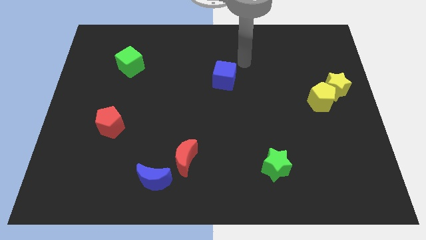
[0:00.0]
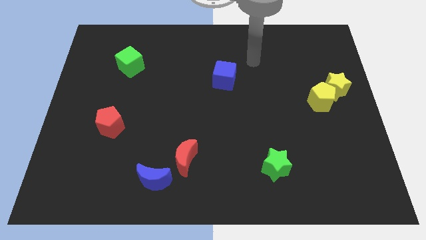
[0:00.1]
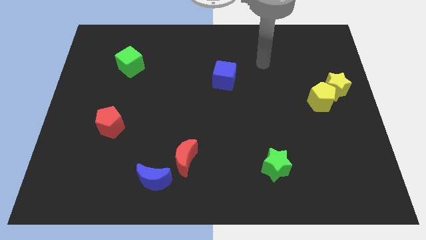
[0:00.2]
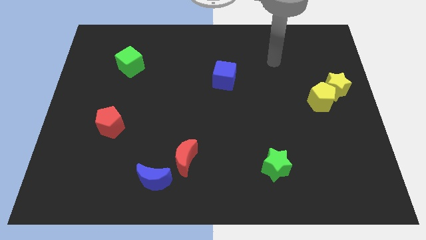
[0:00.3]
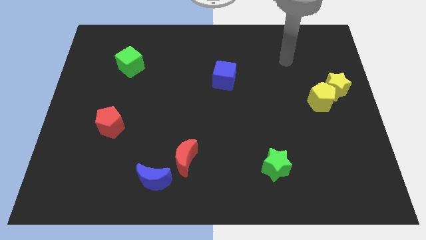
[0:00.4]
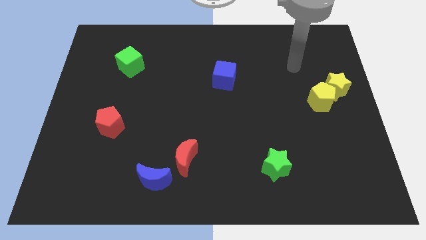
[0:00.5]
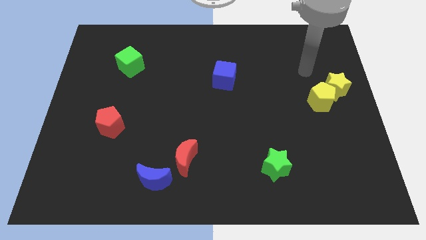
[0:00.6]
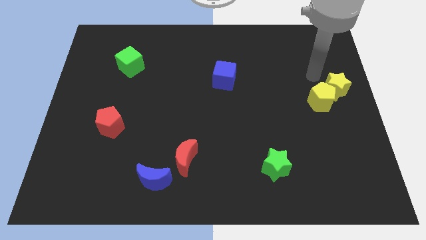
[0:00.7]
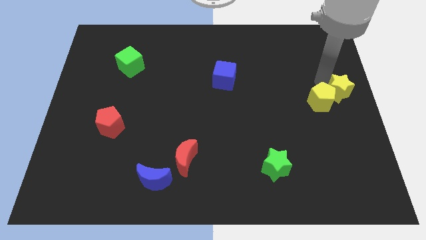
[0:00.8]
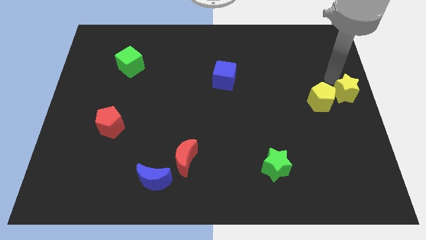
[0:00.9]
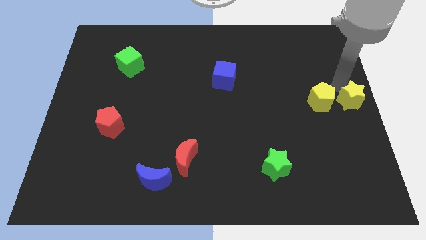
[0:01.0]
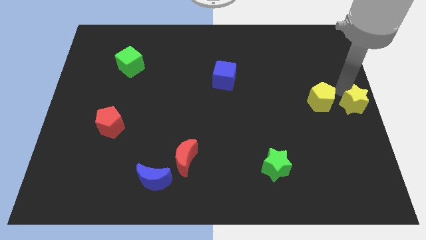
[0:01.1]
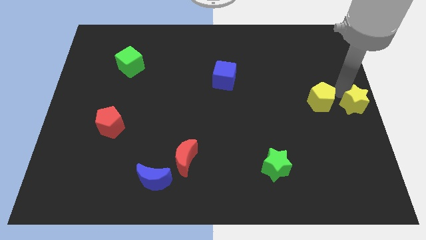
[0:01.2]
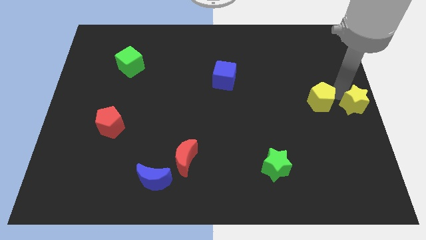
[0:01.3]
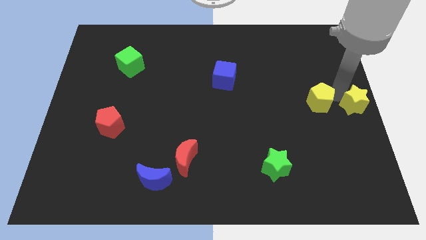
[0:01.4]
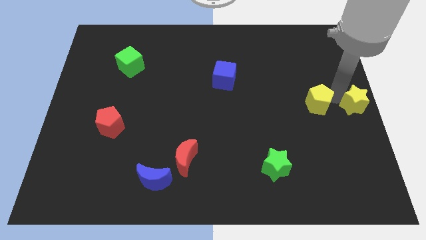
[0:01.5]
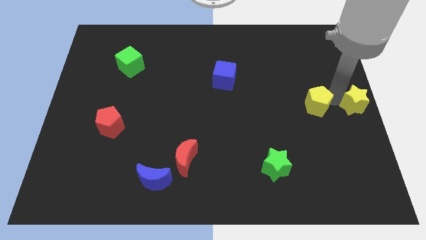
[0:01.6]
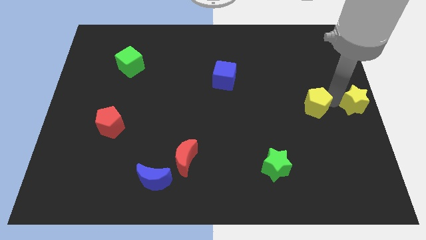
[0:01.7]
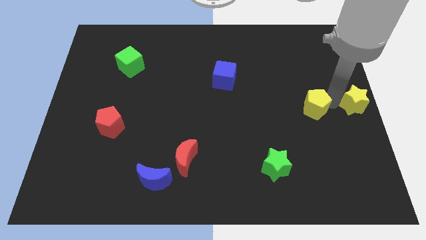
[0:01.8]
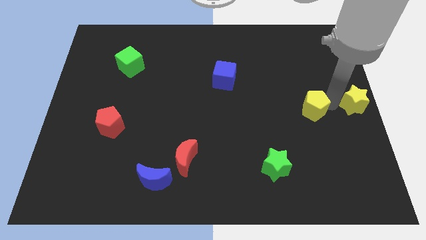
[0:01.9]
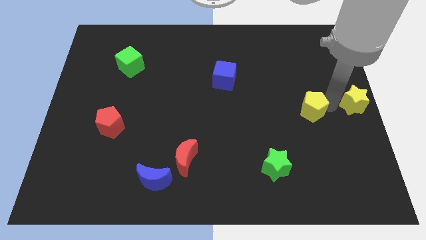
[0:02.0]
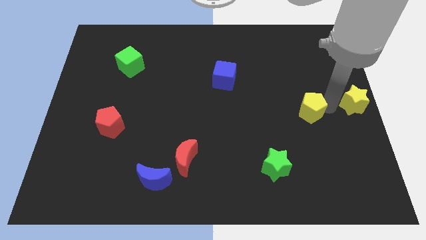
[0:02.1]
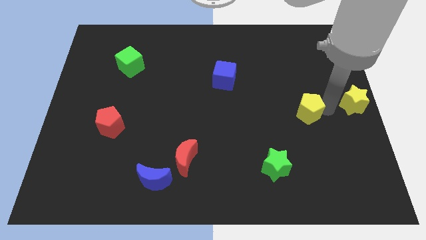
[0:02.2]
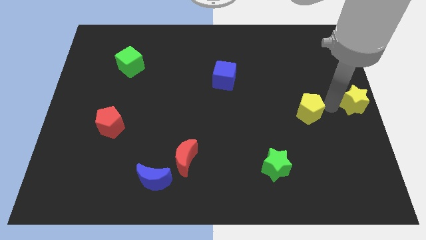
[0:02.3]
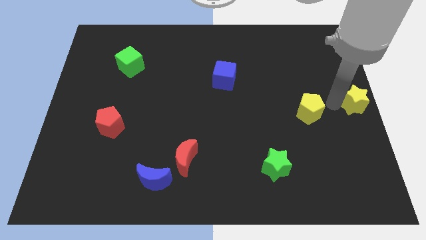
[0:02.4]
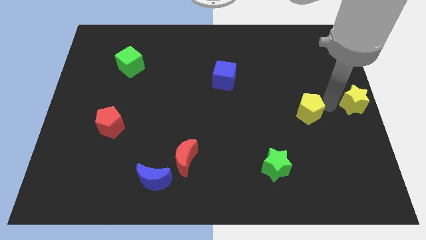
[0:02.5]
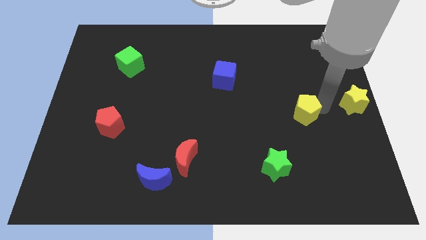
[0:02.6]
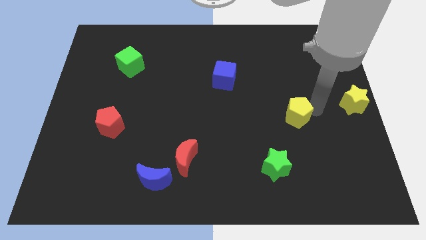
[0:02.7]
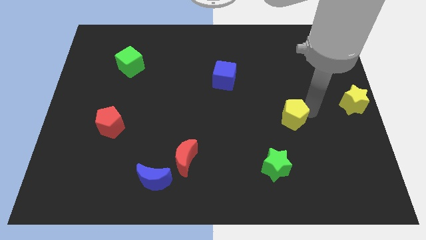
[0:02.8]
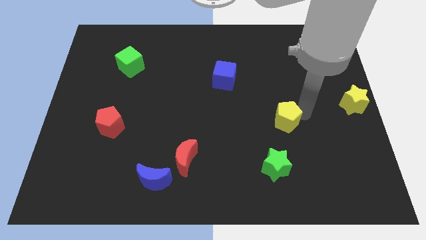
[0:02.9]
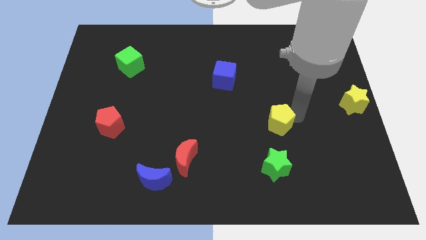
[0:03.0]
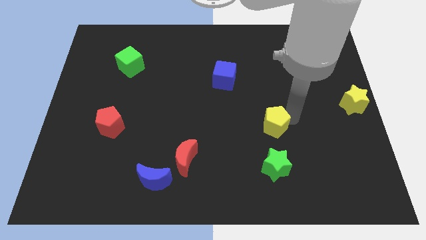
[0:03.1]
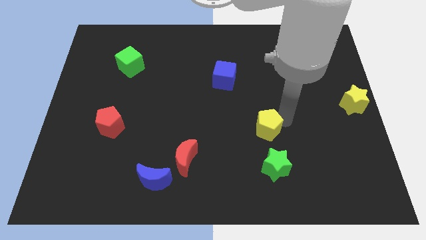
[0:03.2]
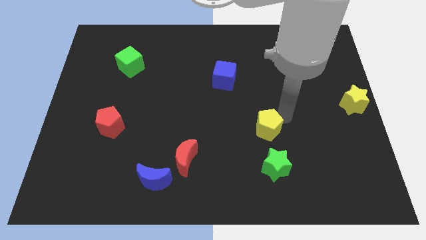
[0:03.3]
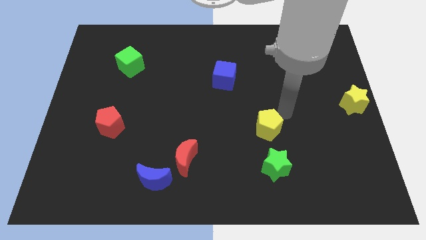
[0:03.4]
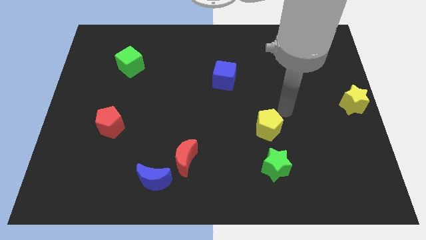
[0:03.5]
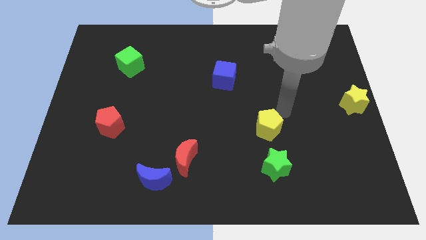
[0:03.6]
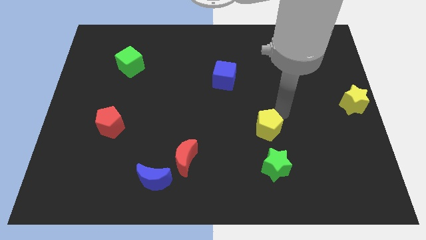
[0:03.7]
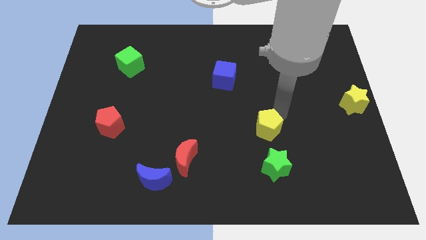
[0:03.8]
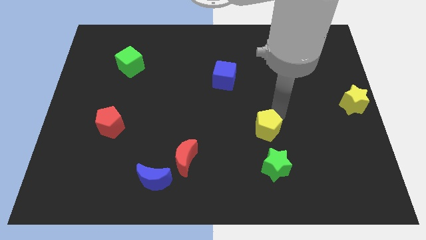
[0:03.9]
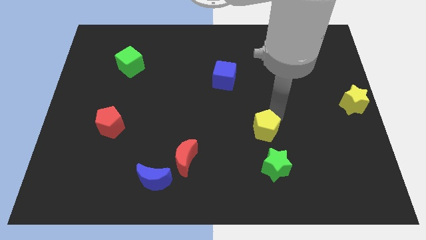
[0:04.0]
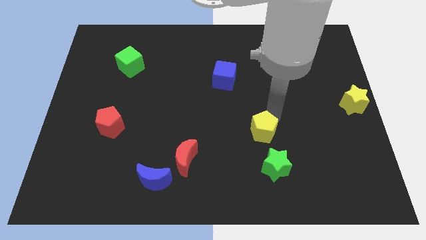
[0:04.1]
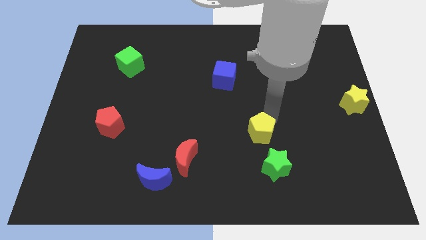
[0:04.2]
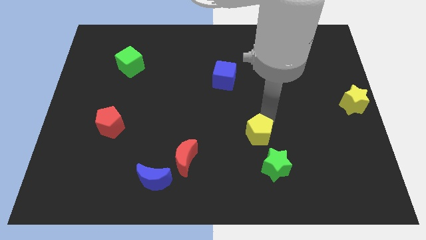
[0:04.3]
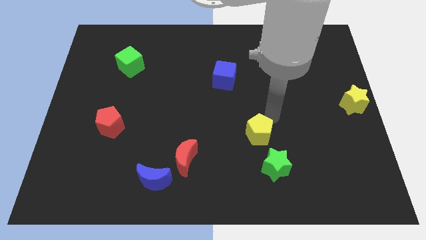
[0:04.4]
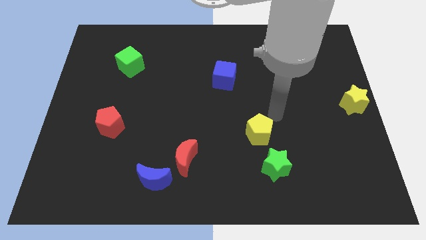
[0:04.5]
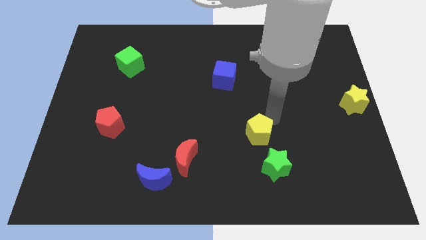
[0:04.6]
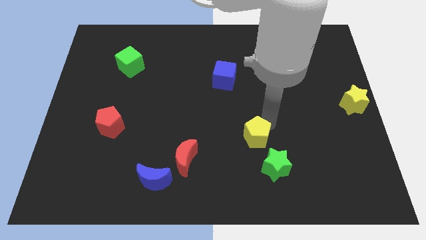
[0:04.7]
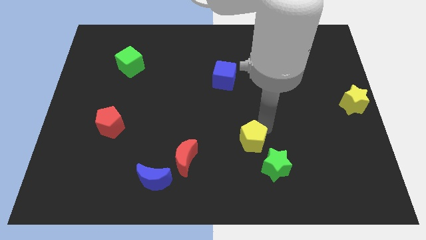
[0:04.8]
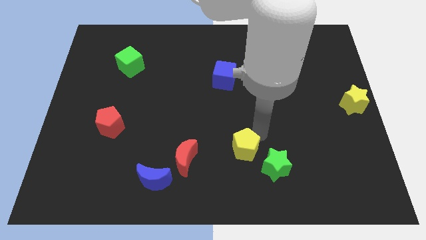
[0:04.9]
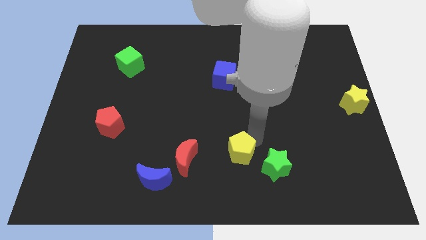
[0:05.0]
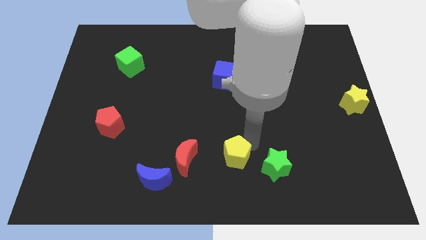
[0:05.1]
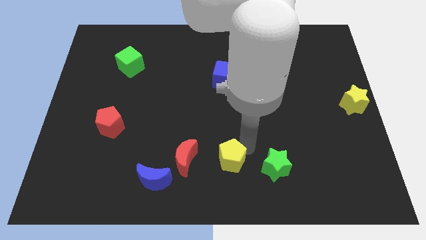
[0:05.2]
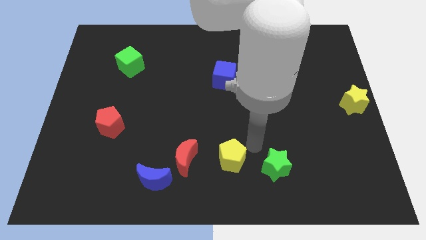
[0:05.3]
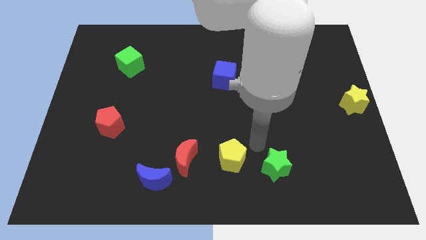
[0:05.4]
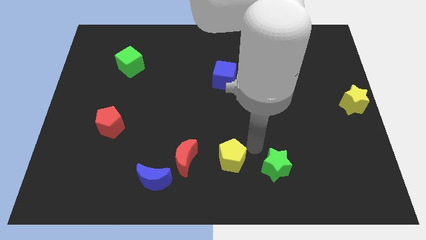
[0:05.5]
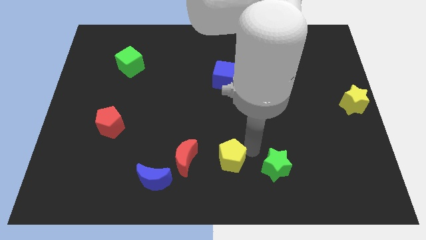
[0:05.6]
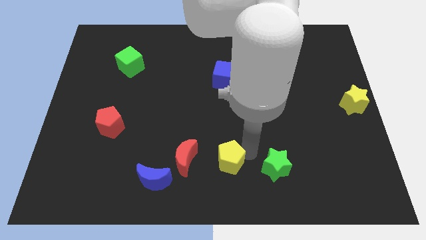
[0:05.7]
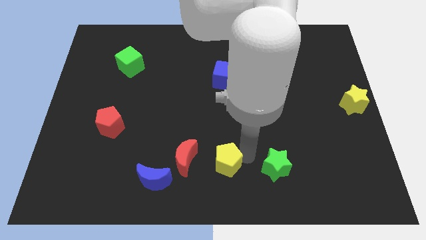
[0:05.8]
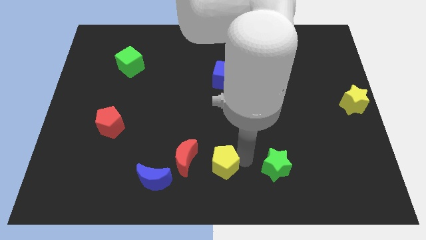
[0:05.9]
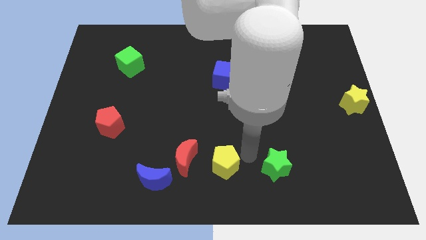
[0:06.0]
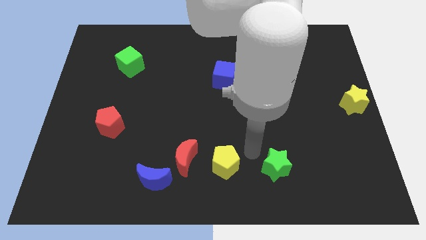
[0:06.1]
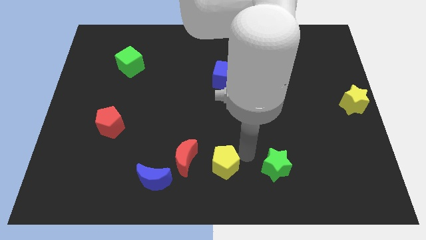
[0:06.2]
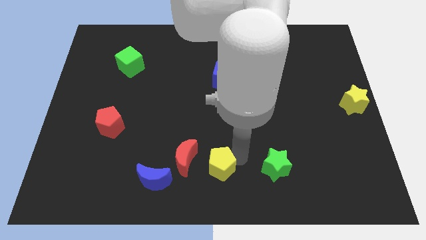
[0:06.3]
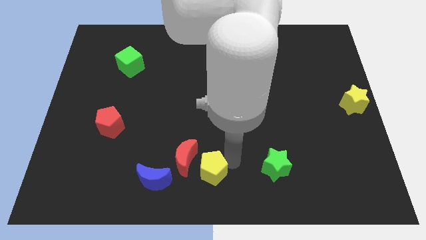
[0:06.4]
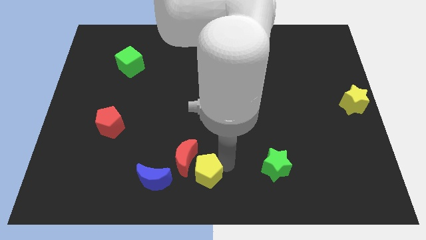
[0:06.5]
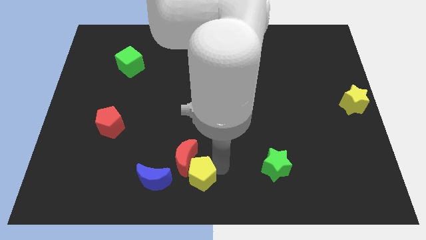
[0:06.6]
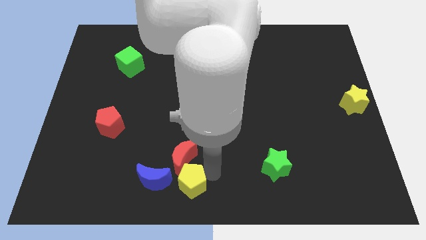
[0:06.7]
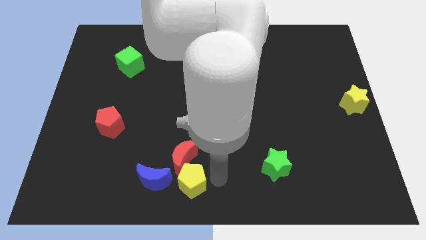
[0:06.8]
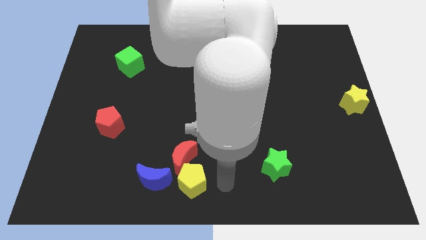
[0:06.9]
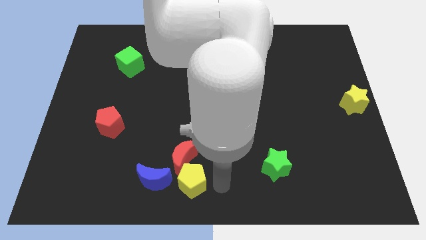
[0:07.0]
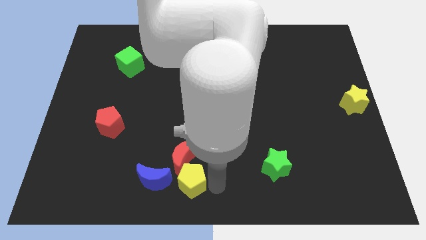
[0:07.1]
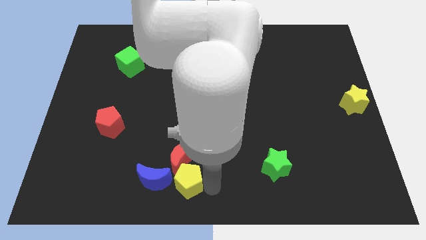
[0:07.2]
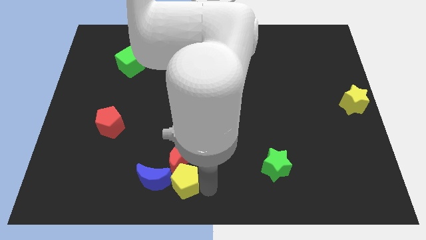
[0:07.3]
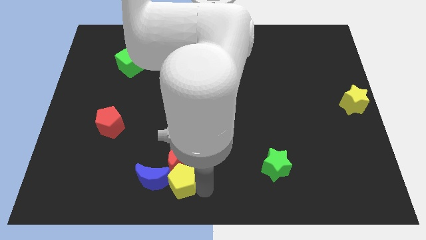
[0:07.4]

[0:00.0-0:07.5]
move the yellow pentagon close to the blue moon
